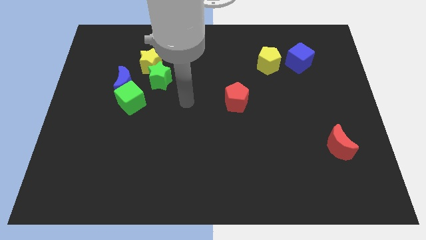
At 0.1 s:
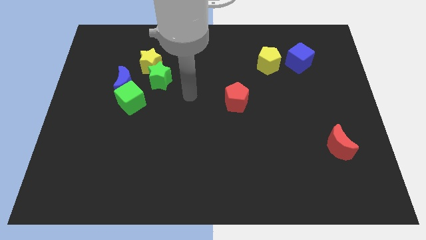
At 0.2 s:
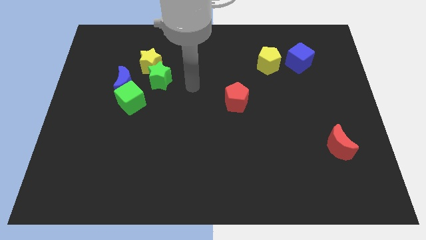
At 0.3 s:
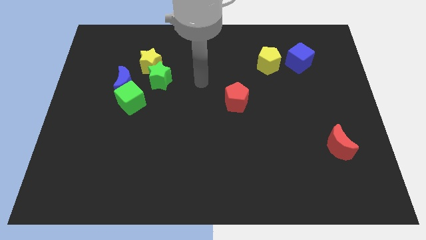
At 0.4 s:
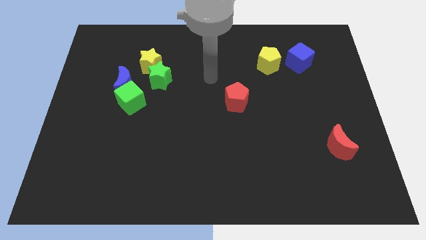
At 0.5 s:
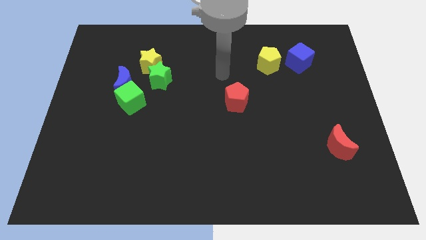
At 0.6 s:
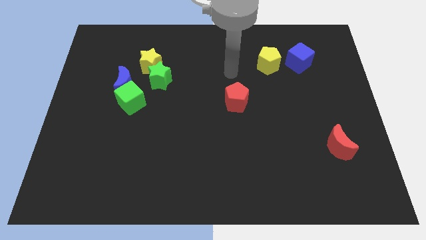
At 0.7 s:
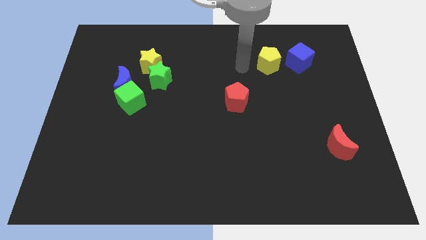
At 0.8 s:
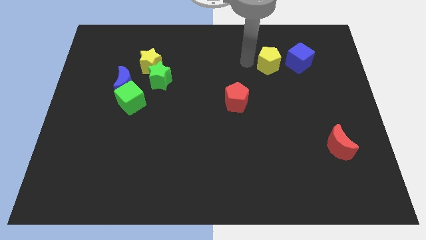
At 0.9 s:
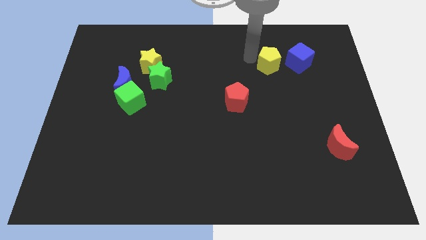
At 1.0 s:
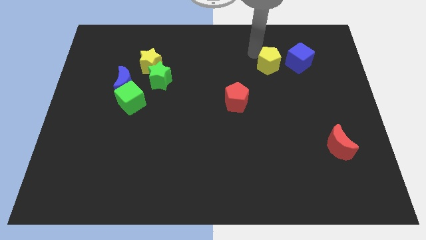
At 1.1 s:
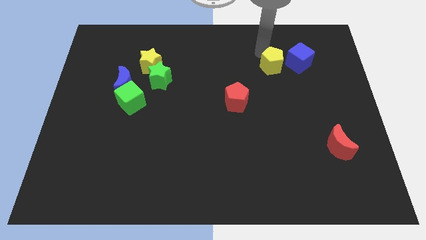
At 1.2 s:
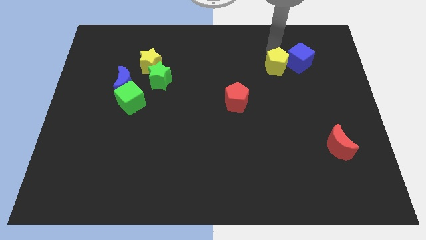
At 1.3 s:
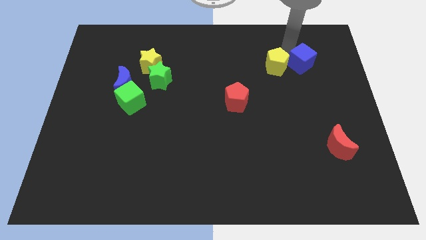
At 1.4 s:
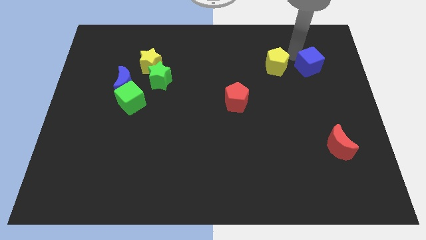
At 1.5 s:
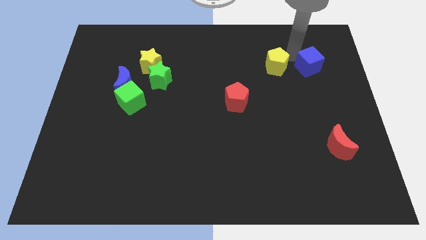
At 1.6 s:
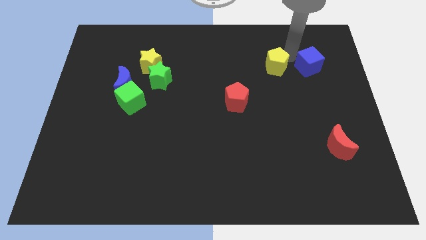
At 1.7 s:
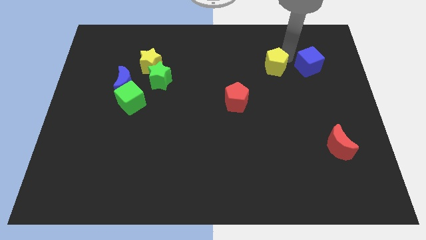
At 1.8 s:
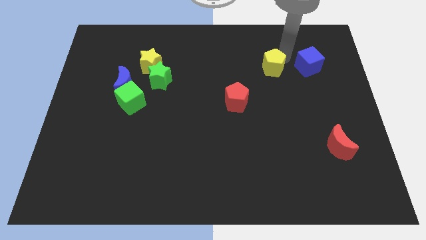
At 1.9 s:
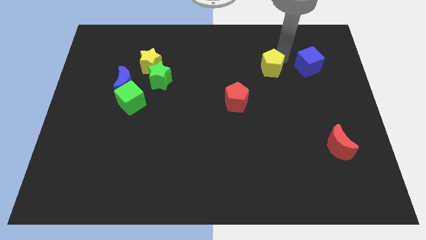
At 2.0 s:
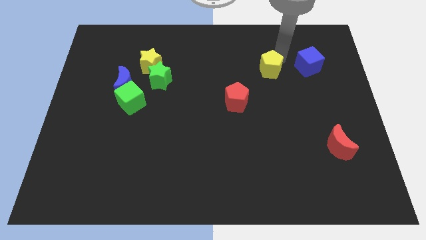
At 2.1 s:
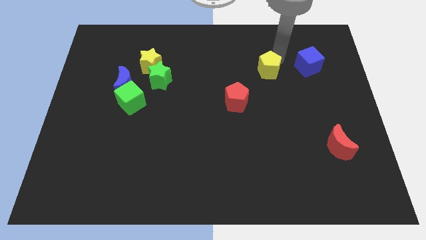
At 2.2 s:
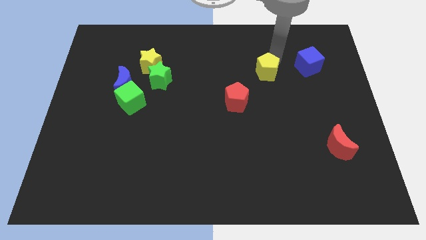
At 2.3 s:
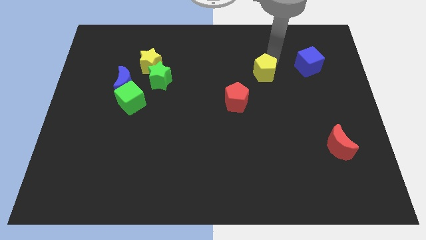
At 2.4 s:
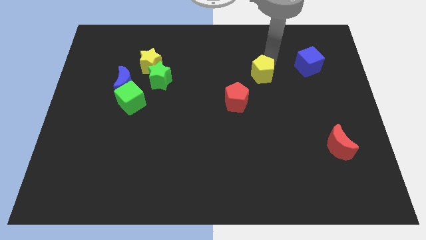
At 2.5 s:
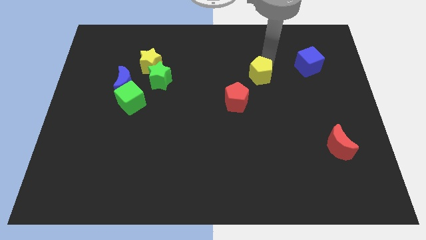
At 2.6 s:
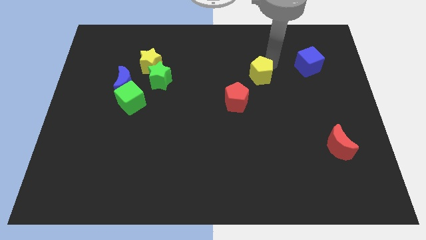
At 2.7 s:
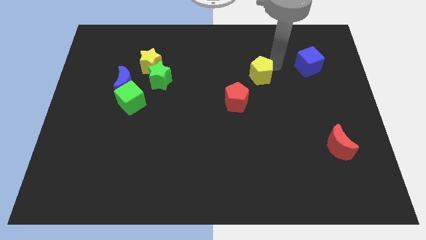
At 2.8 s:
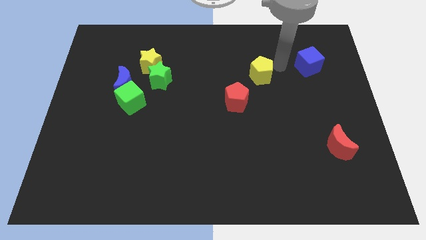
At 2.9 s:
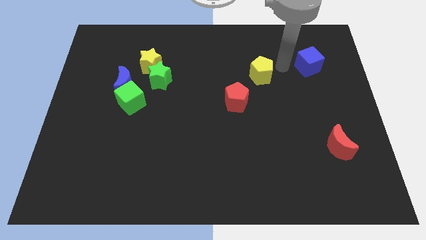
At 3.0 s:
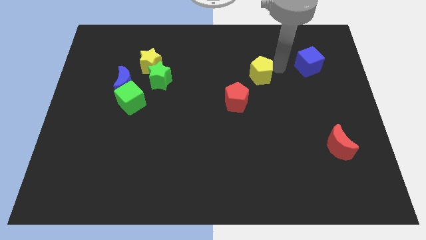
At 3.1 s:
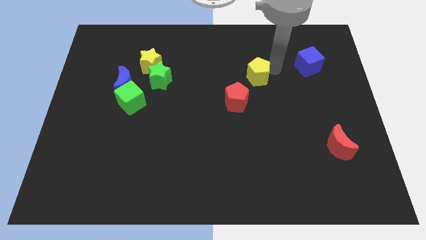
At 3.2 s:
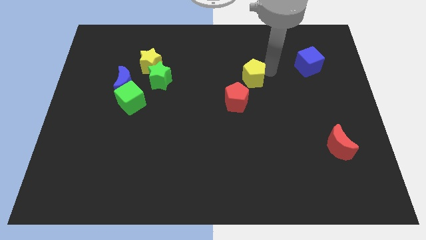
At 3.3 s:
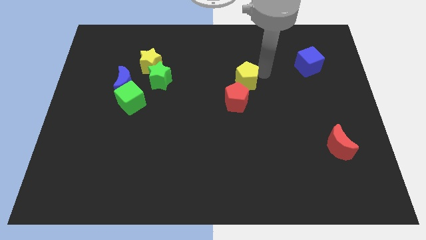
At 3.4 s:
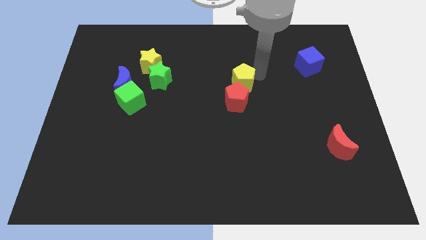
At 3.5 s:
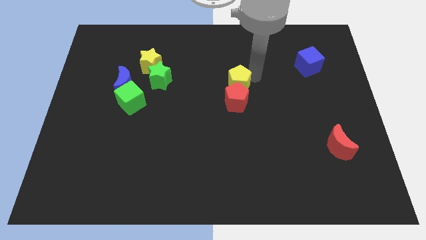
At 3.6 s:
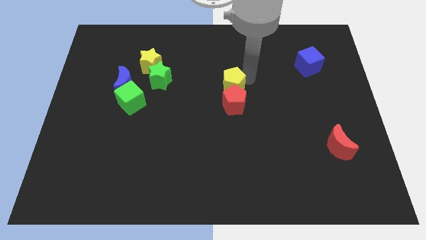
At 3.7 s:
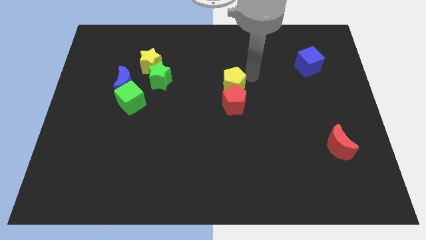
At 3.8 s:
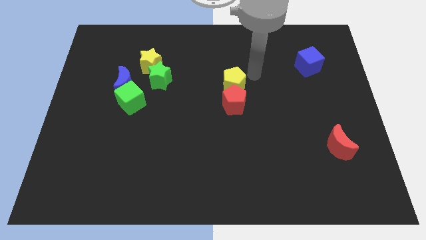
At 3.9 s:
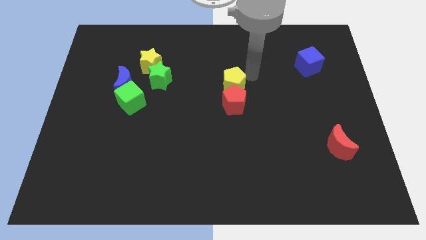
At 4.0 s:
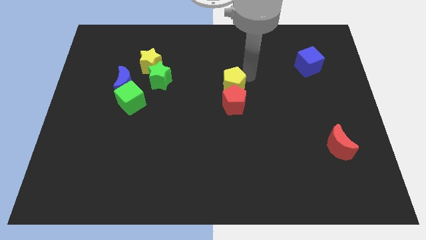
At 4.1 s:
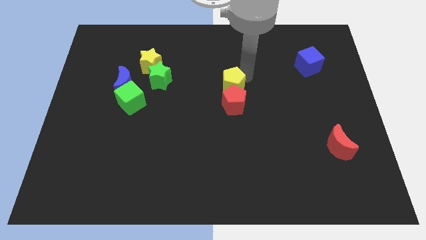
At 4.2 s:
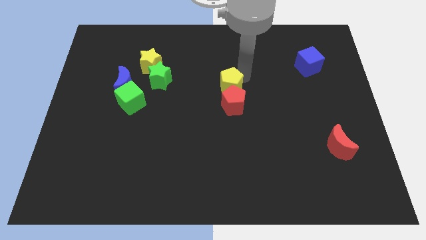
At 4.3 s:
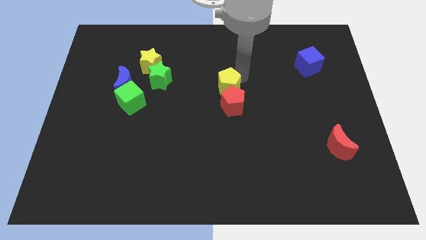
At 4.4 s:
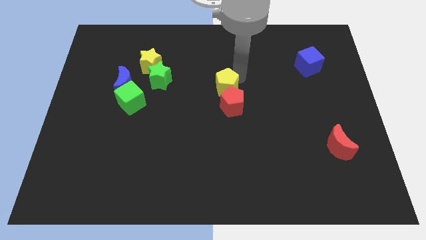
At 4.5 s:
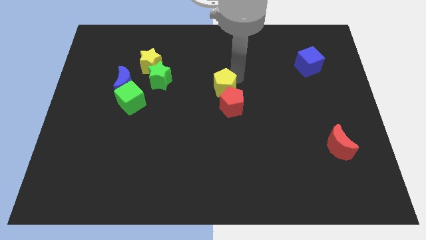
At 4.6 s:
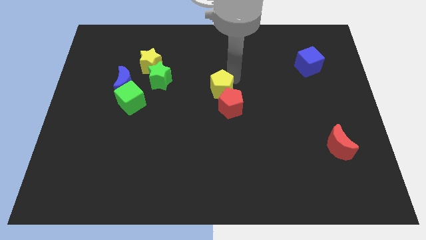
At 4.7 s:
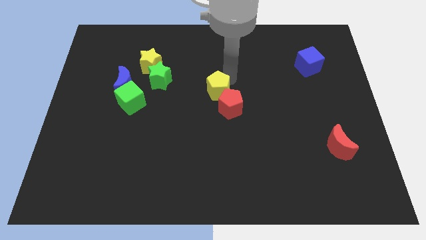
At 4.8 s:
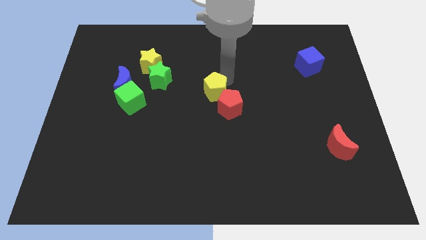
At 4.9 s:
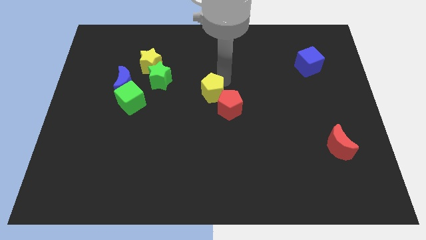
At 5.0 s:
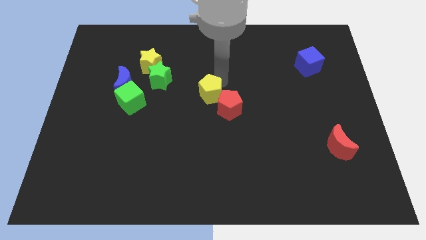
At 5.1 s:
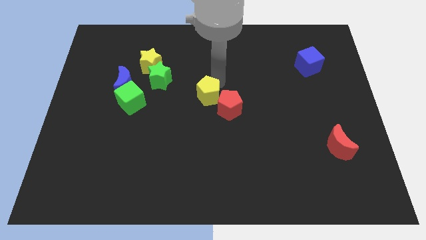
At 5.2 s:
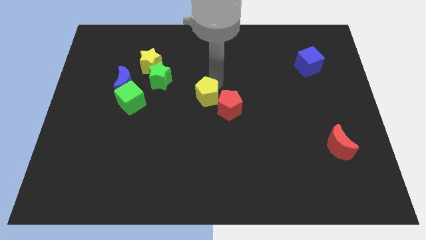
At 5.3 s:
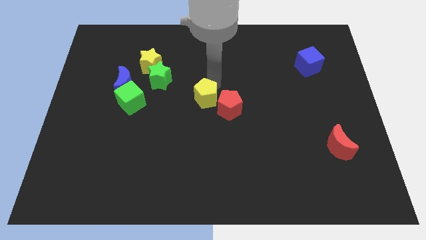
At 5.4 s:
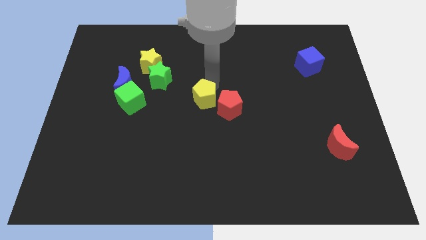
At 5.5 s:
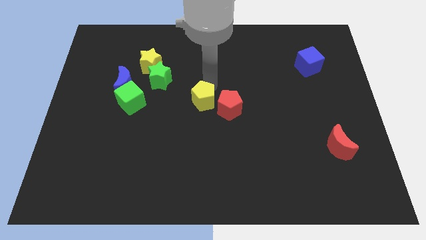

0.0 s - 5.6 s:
slide the yellow pentagon downwards and to the left diagonally

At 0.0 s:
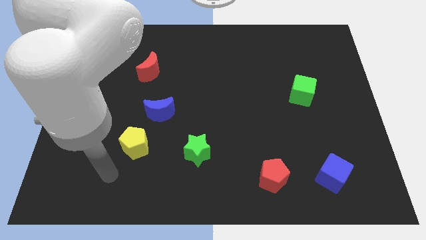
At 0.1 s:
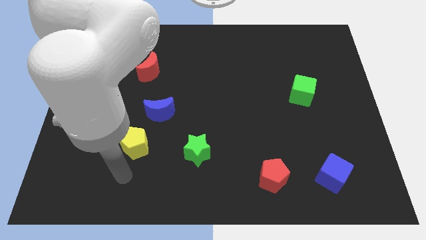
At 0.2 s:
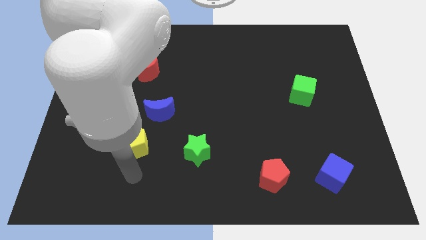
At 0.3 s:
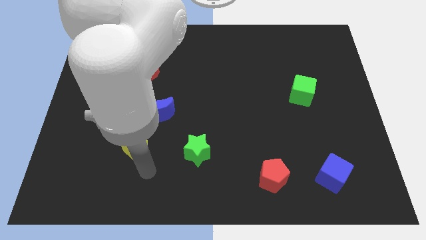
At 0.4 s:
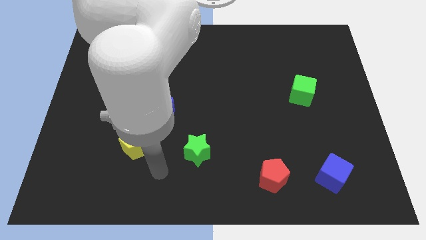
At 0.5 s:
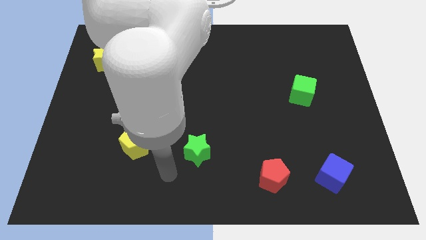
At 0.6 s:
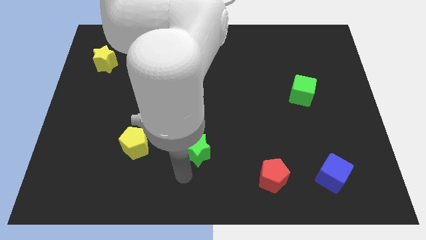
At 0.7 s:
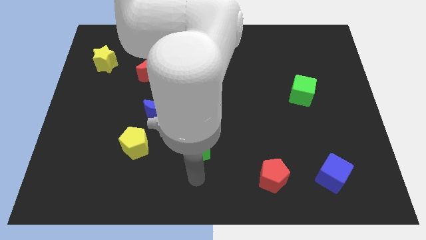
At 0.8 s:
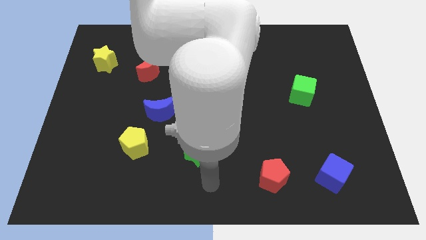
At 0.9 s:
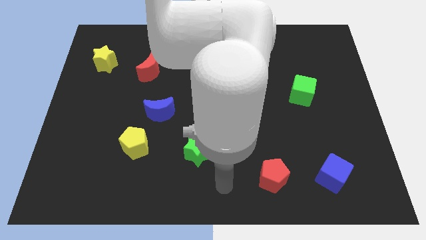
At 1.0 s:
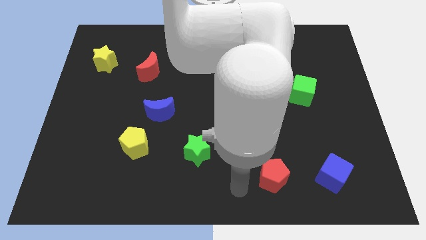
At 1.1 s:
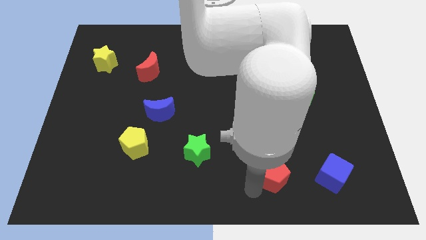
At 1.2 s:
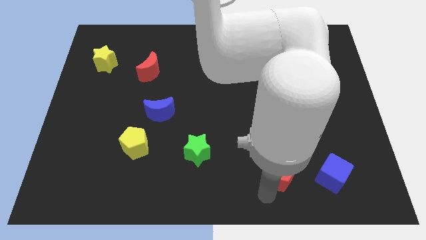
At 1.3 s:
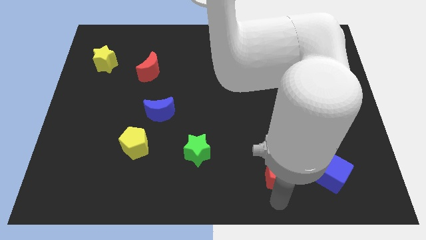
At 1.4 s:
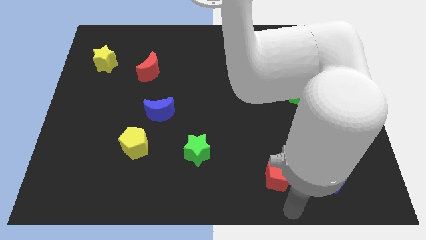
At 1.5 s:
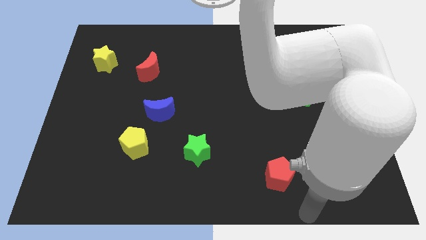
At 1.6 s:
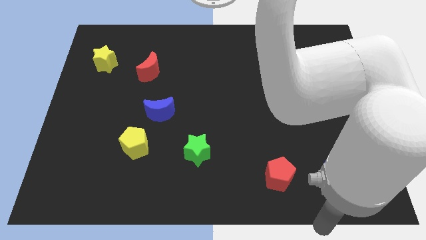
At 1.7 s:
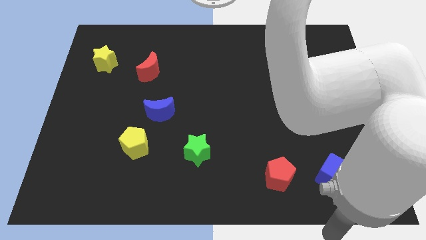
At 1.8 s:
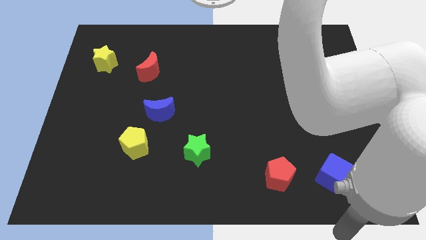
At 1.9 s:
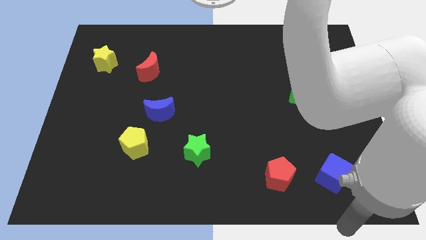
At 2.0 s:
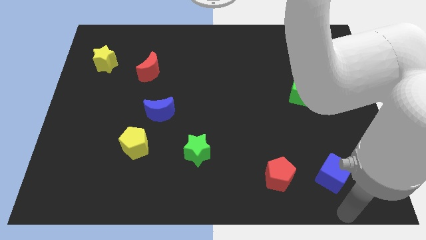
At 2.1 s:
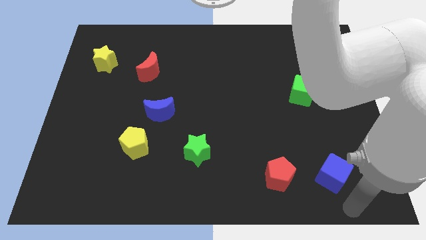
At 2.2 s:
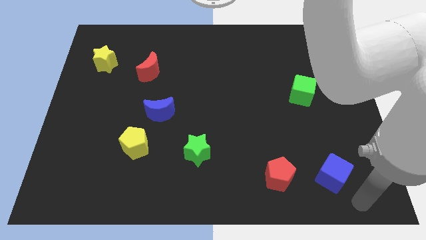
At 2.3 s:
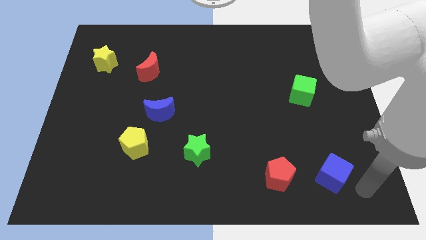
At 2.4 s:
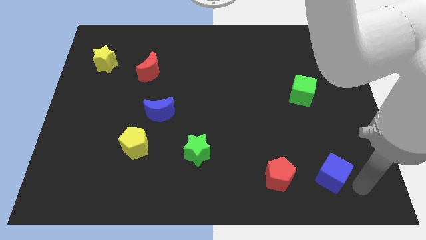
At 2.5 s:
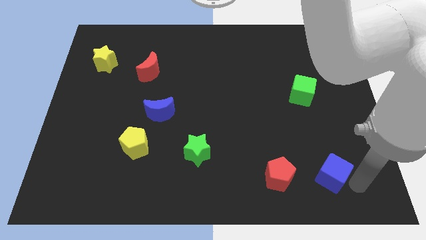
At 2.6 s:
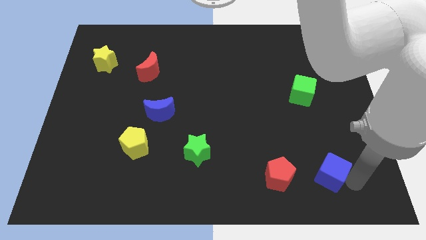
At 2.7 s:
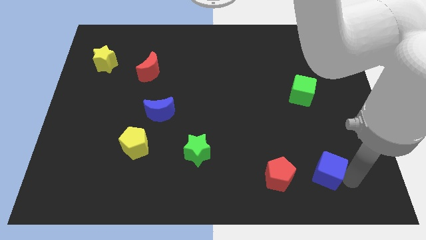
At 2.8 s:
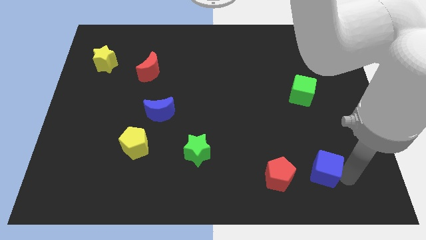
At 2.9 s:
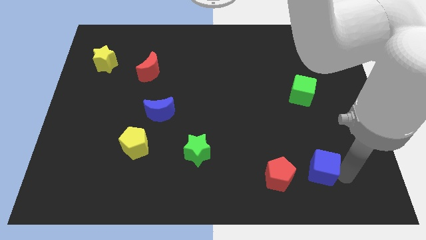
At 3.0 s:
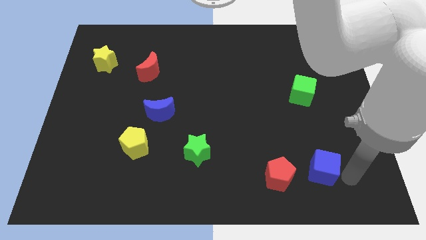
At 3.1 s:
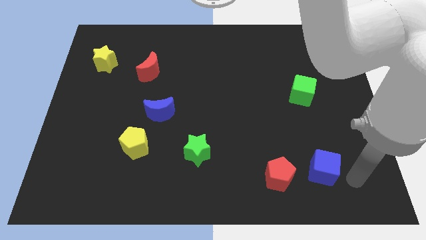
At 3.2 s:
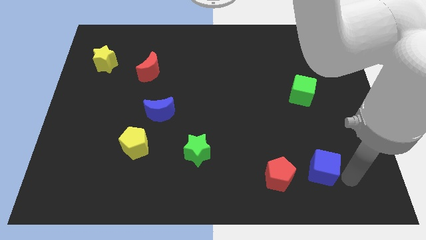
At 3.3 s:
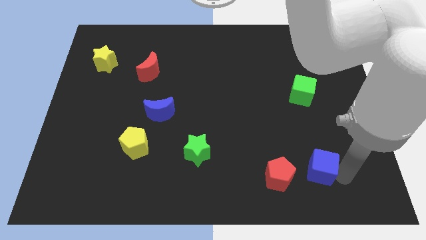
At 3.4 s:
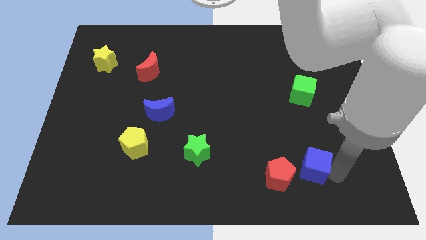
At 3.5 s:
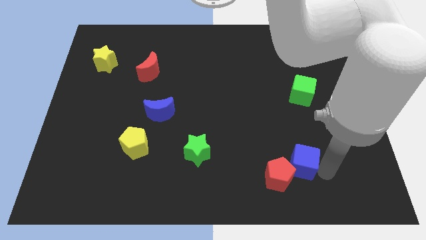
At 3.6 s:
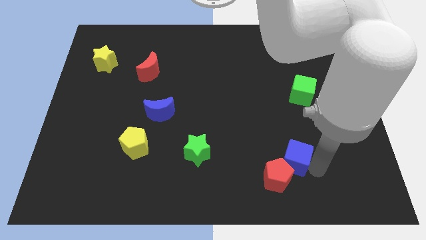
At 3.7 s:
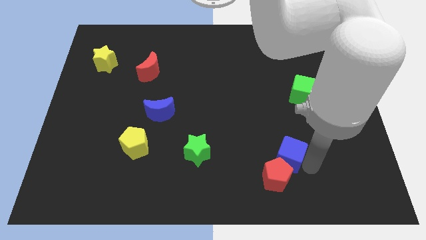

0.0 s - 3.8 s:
slightly push the blue cube left
